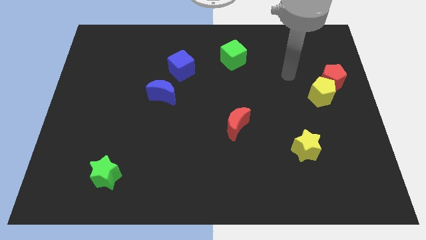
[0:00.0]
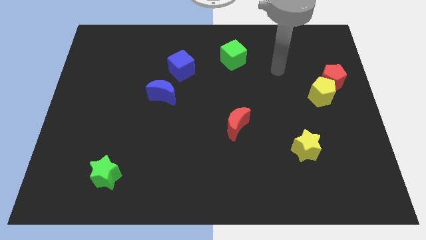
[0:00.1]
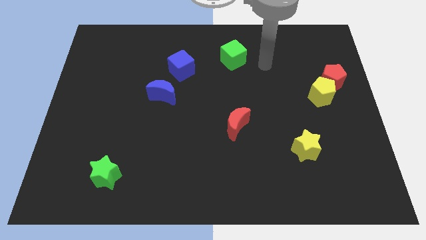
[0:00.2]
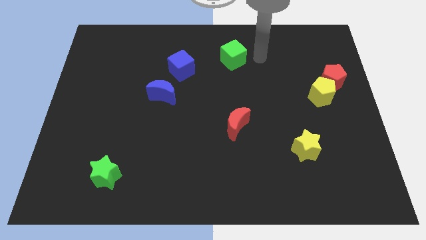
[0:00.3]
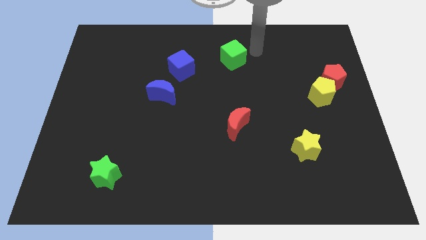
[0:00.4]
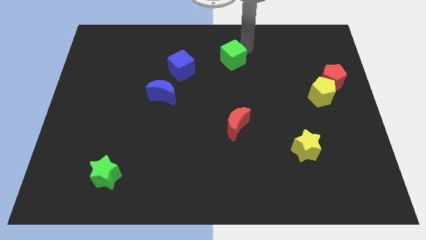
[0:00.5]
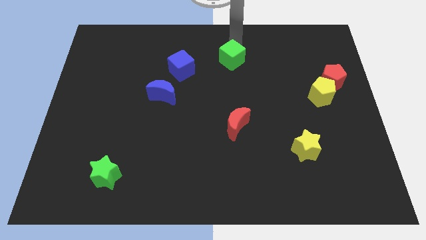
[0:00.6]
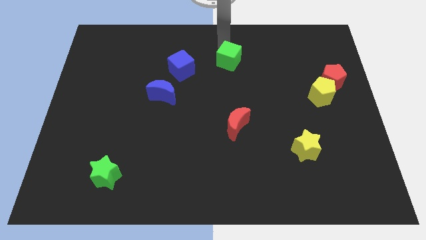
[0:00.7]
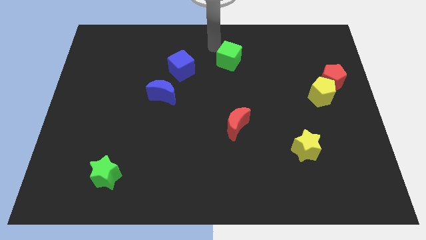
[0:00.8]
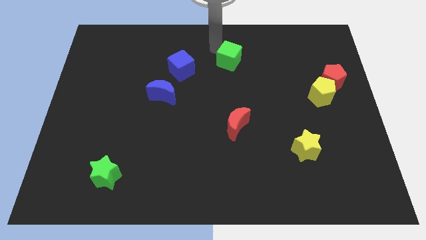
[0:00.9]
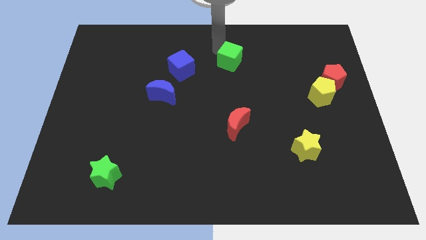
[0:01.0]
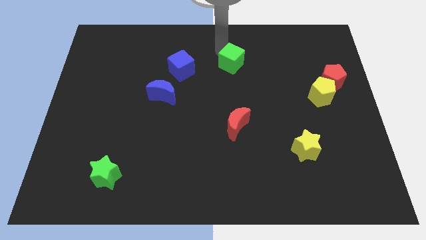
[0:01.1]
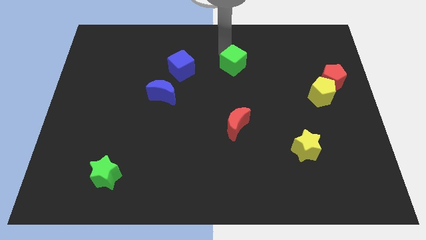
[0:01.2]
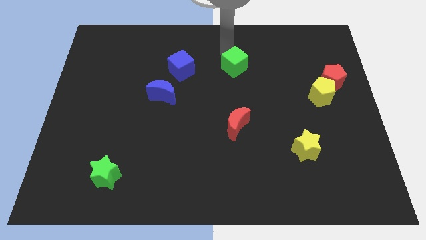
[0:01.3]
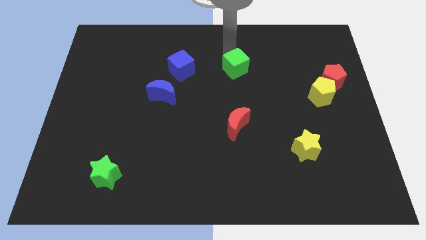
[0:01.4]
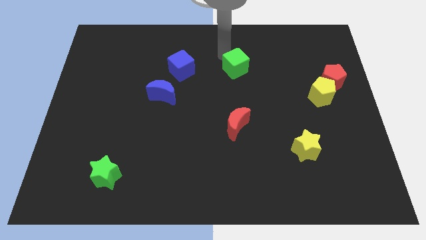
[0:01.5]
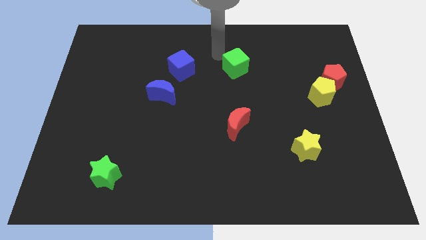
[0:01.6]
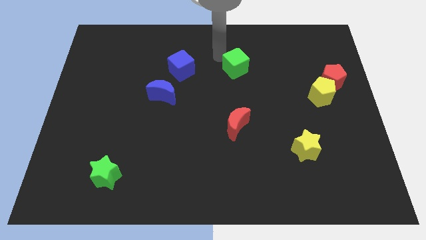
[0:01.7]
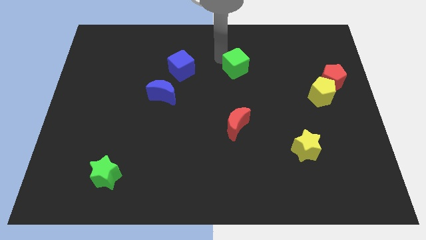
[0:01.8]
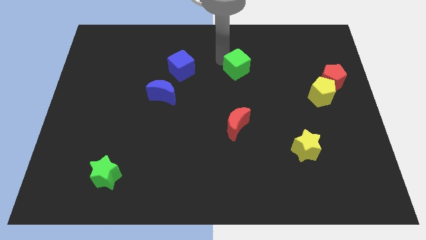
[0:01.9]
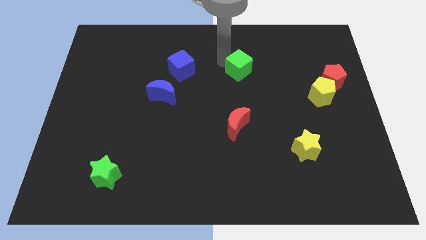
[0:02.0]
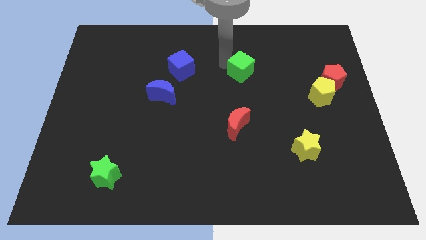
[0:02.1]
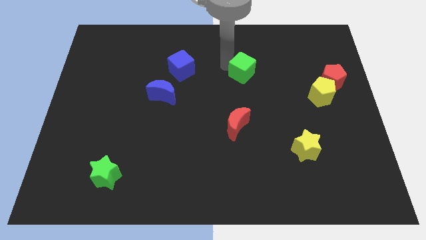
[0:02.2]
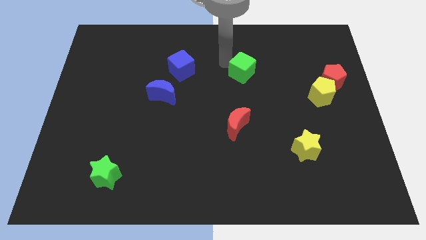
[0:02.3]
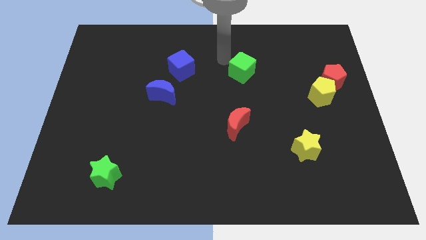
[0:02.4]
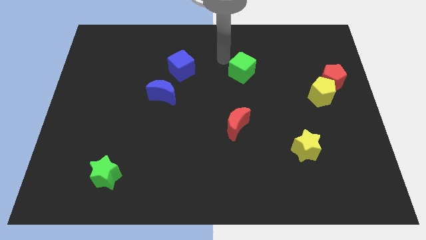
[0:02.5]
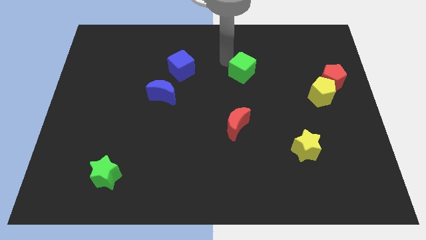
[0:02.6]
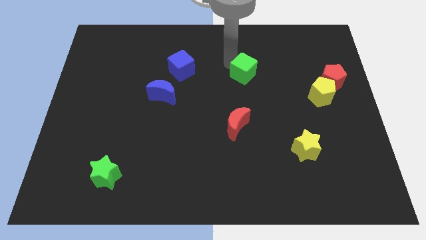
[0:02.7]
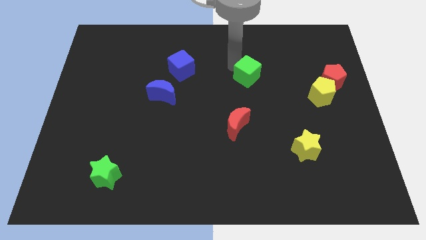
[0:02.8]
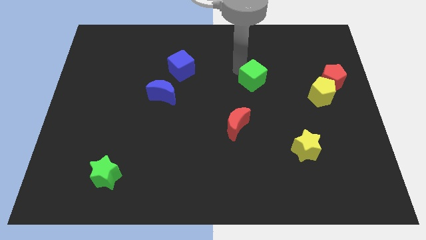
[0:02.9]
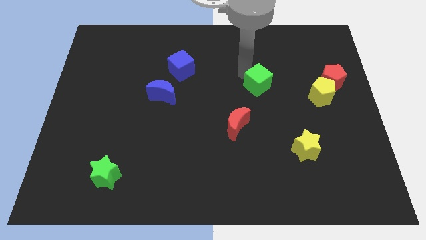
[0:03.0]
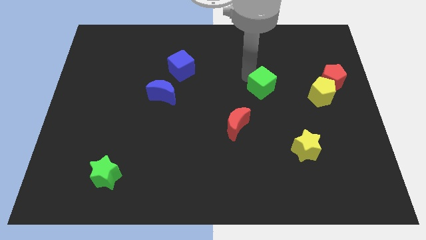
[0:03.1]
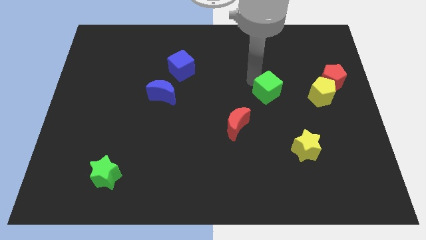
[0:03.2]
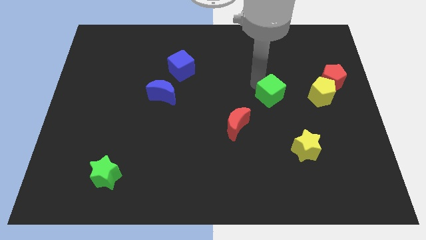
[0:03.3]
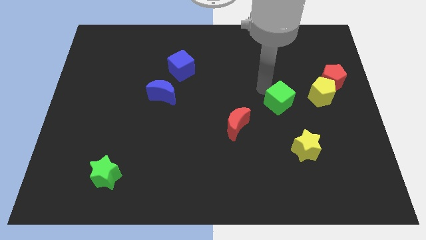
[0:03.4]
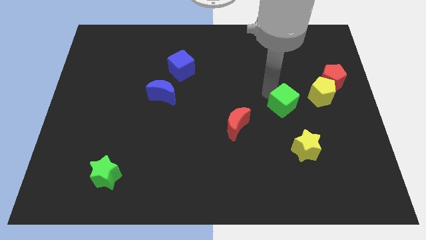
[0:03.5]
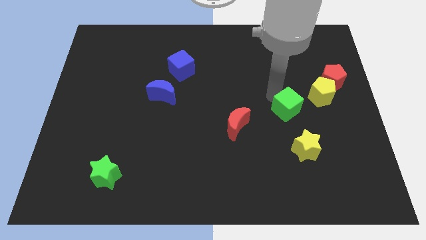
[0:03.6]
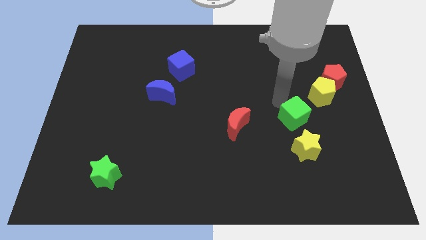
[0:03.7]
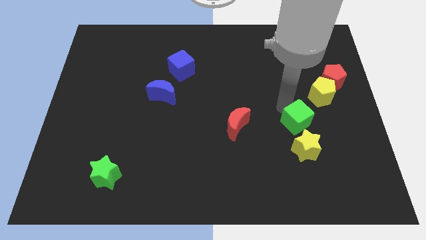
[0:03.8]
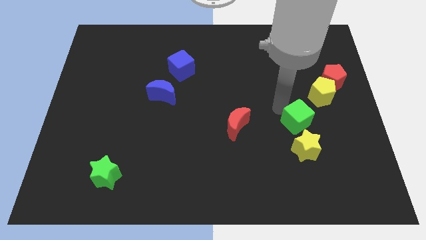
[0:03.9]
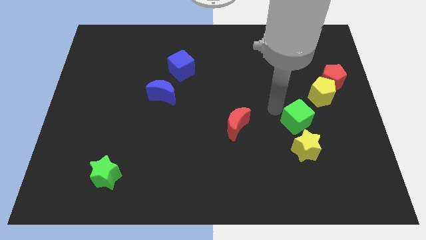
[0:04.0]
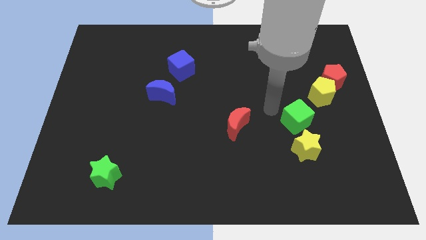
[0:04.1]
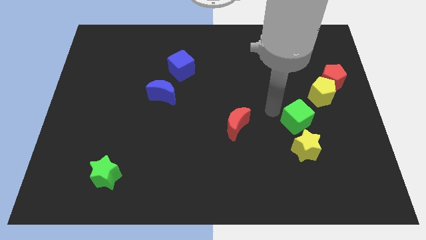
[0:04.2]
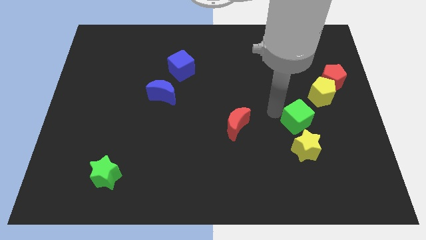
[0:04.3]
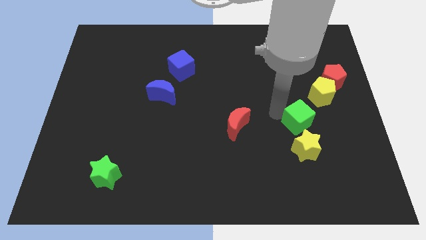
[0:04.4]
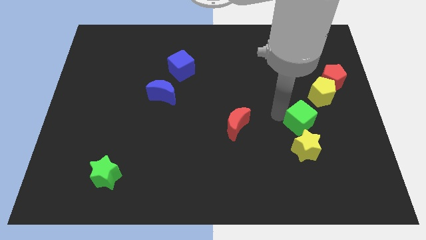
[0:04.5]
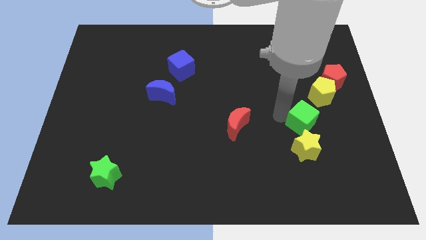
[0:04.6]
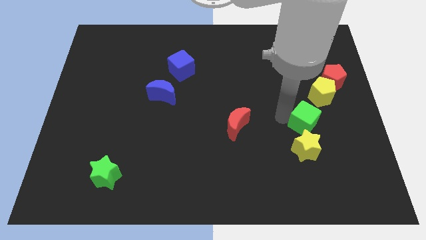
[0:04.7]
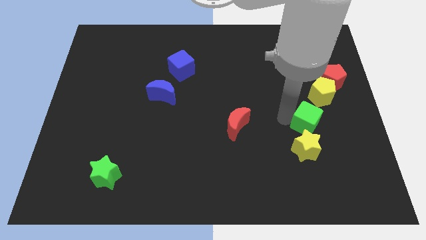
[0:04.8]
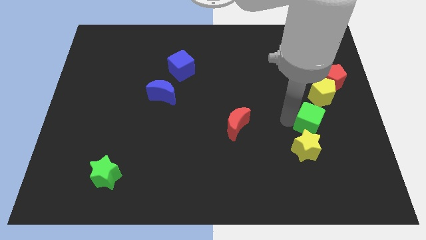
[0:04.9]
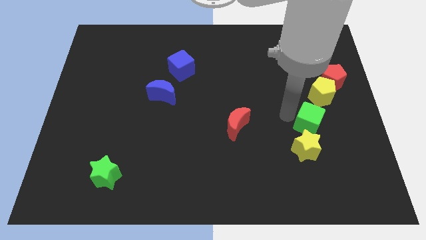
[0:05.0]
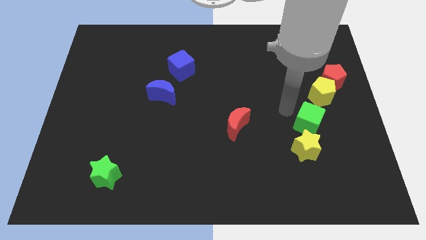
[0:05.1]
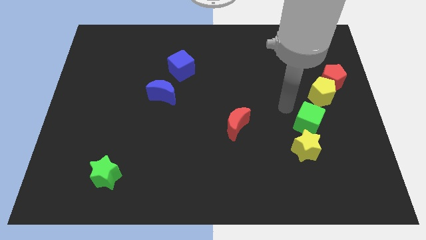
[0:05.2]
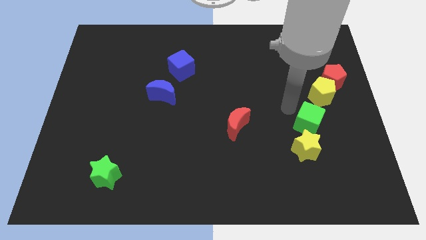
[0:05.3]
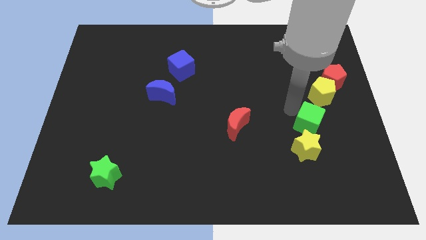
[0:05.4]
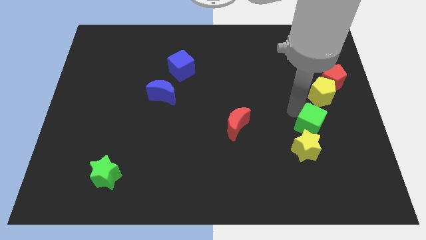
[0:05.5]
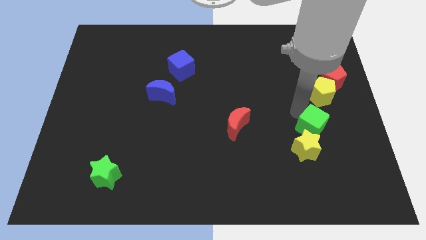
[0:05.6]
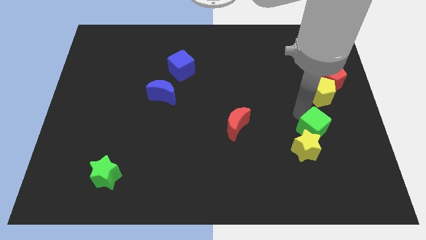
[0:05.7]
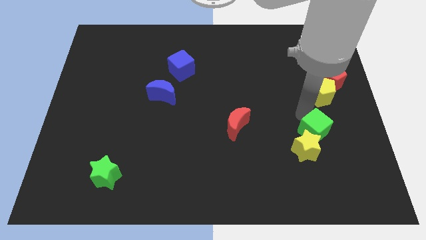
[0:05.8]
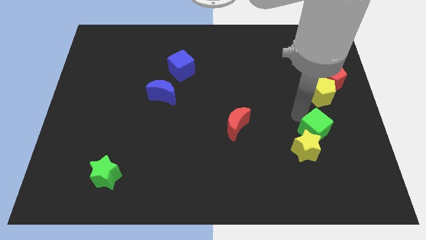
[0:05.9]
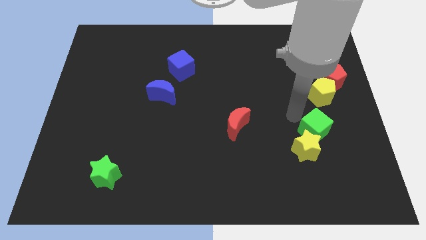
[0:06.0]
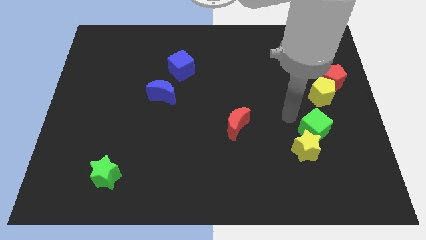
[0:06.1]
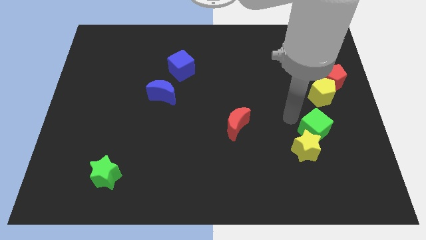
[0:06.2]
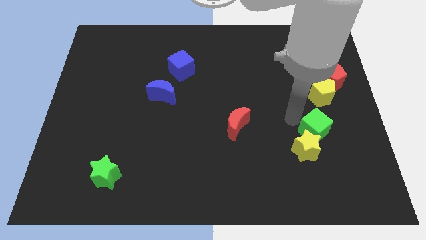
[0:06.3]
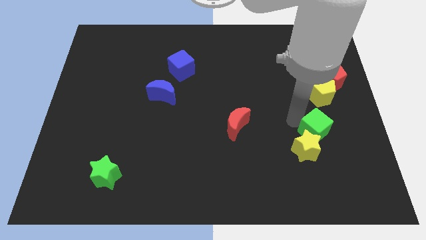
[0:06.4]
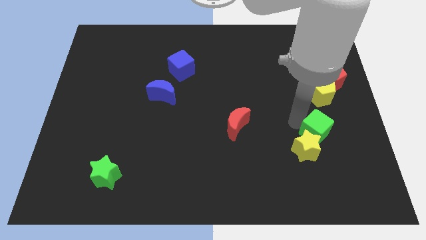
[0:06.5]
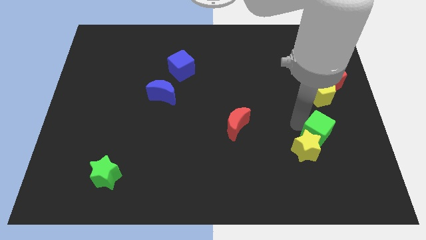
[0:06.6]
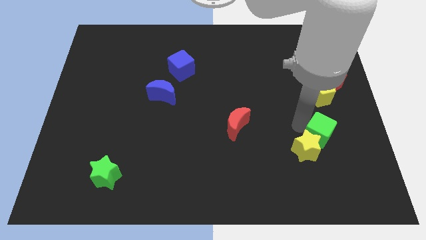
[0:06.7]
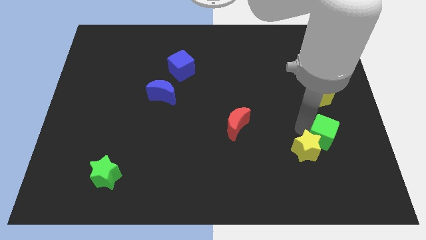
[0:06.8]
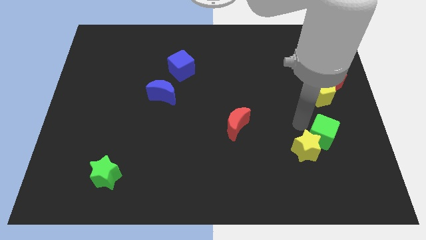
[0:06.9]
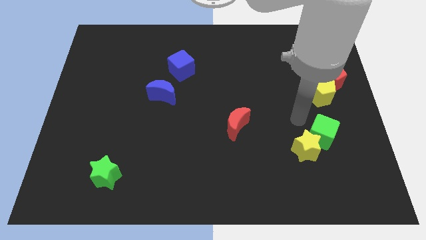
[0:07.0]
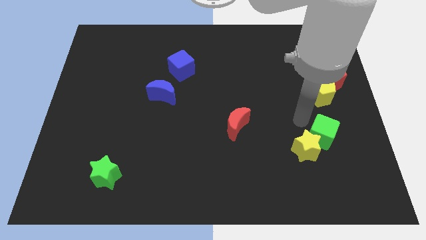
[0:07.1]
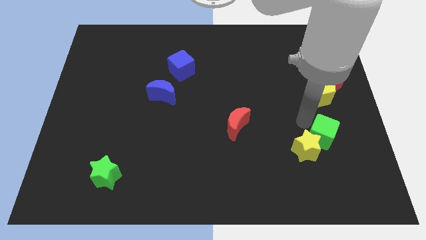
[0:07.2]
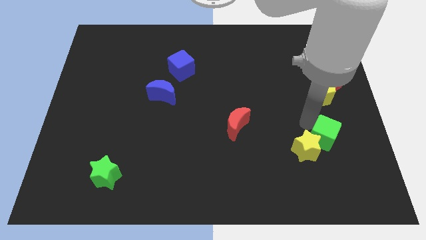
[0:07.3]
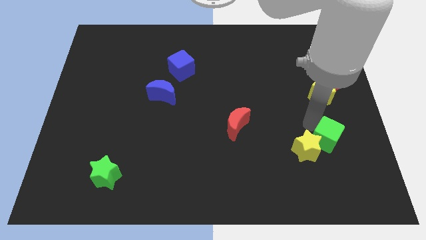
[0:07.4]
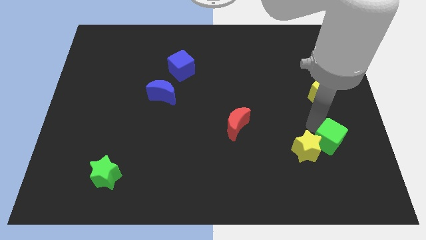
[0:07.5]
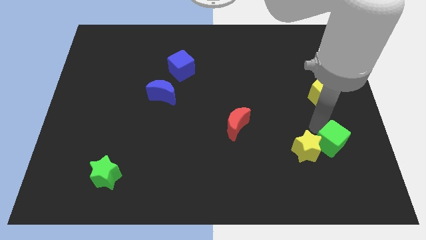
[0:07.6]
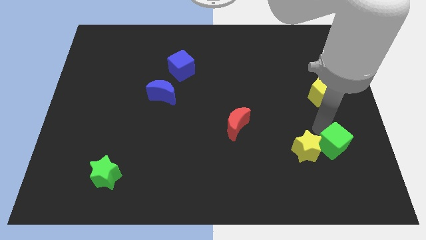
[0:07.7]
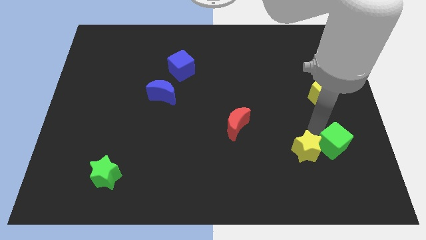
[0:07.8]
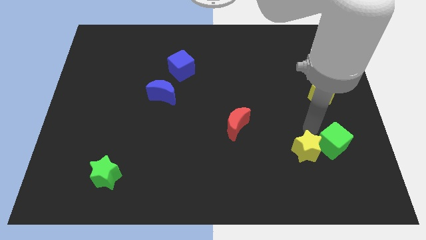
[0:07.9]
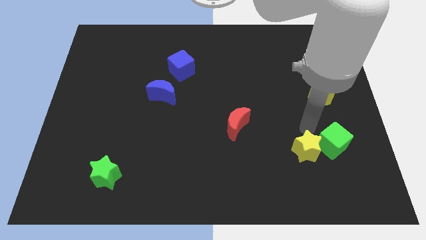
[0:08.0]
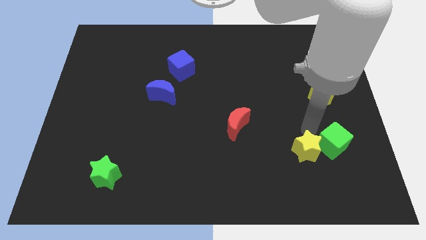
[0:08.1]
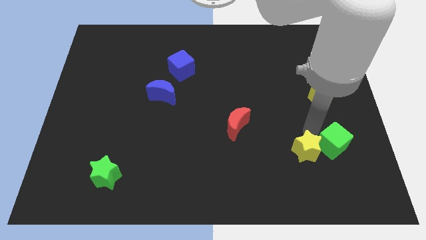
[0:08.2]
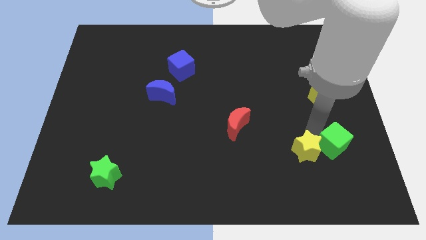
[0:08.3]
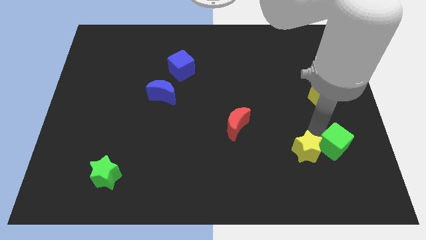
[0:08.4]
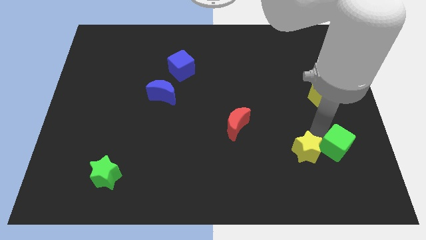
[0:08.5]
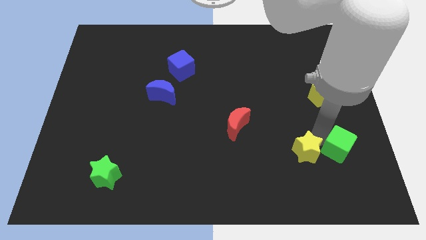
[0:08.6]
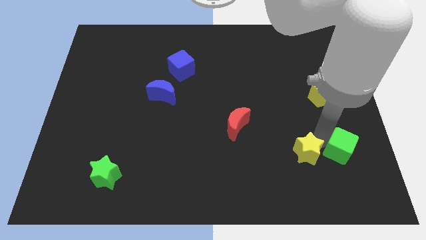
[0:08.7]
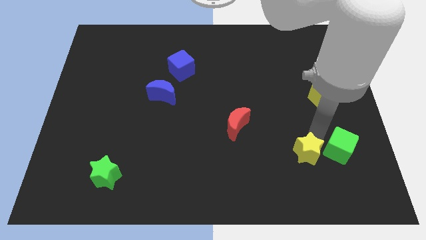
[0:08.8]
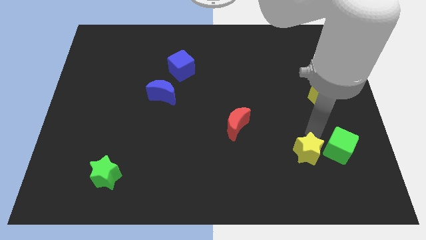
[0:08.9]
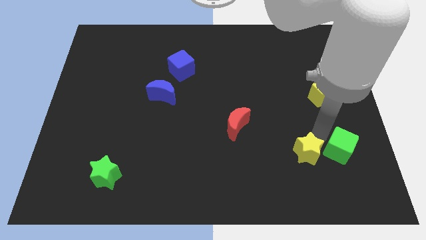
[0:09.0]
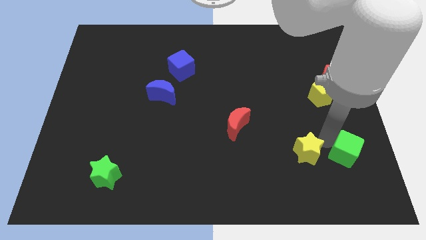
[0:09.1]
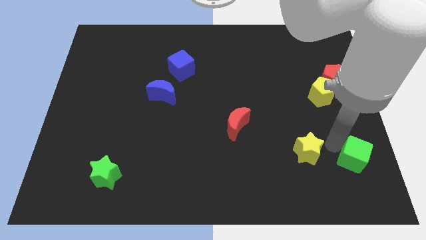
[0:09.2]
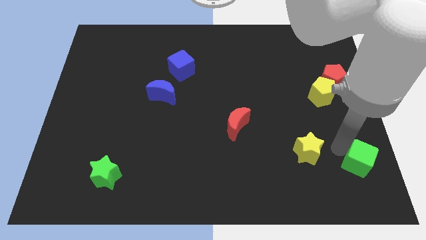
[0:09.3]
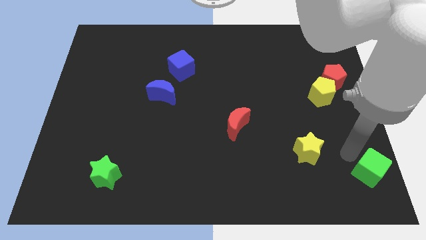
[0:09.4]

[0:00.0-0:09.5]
put the green cube to the bottom right of the board
